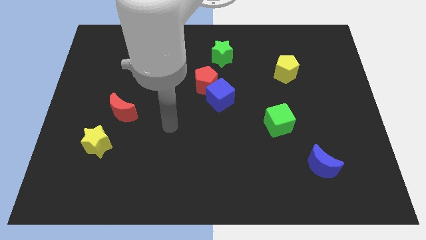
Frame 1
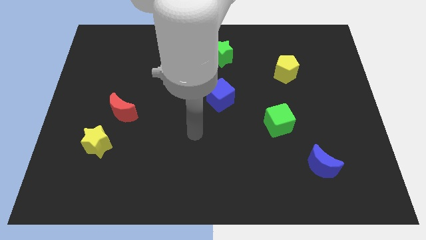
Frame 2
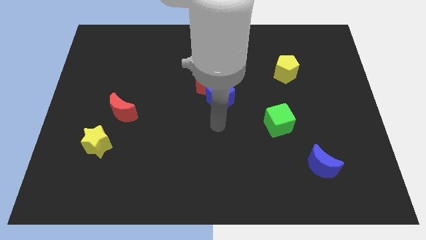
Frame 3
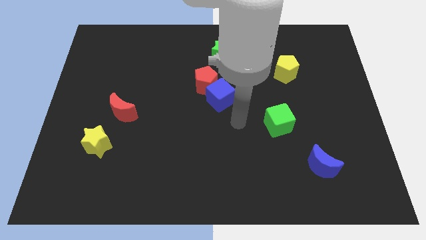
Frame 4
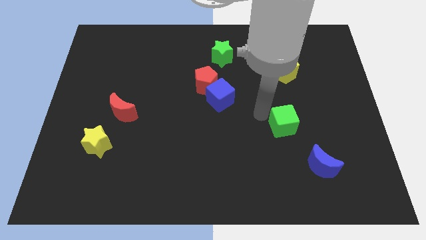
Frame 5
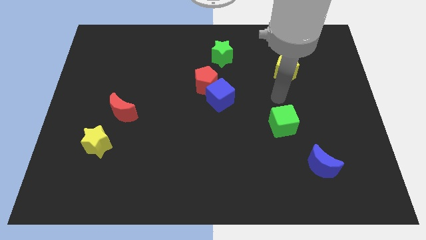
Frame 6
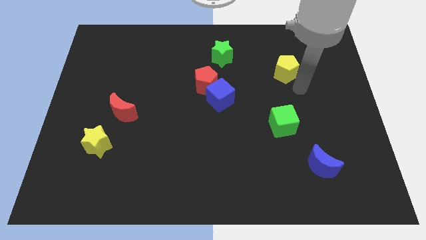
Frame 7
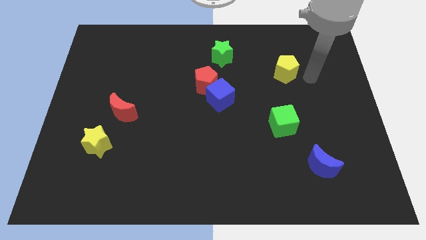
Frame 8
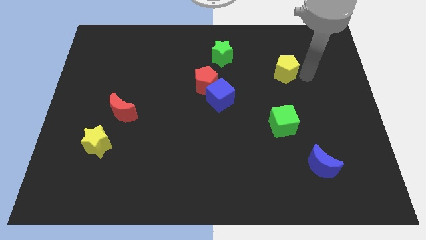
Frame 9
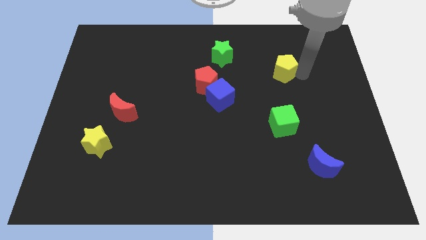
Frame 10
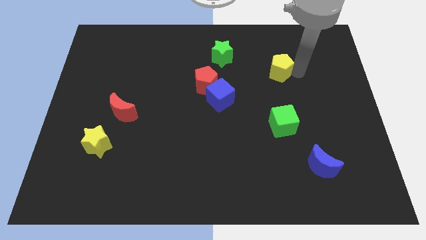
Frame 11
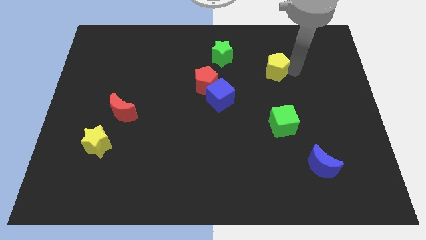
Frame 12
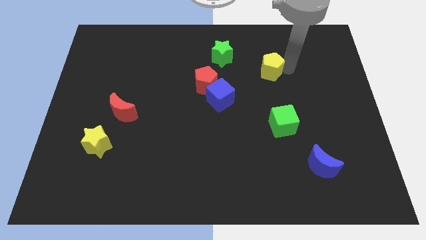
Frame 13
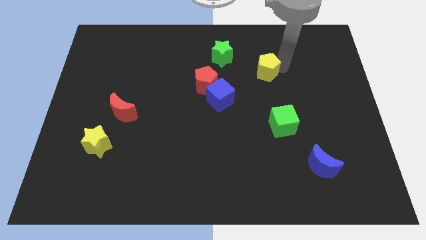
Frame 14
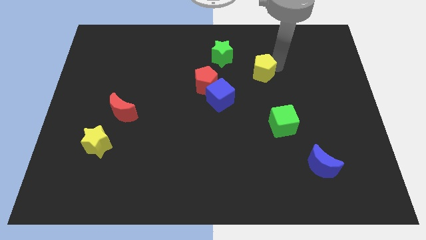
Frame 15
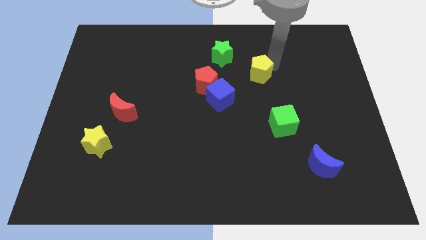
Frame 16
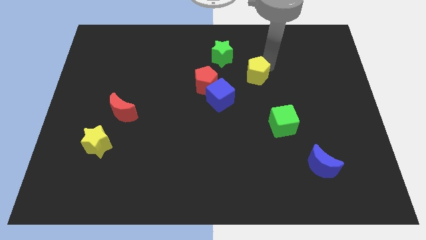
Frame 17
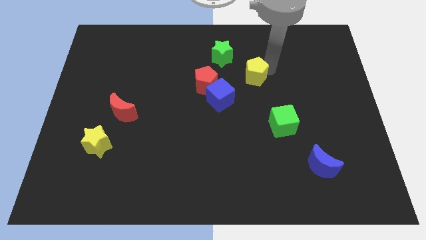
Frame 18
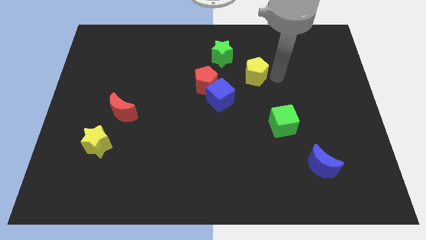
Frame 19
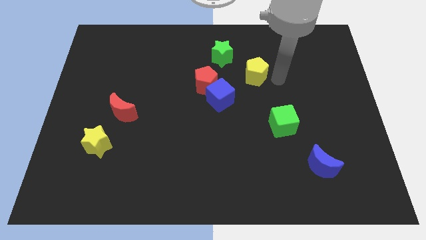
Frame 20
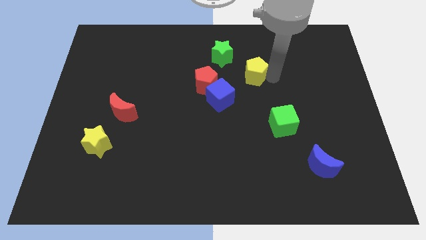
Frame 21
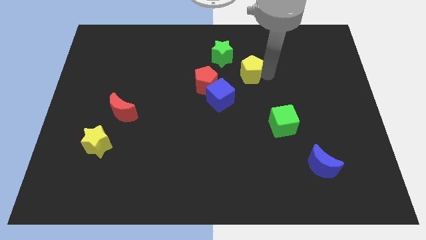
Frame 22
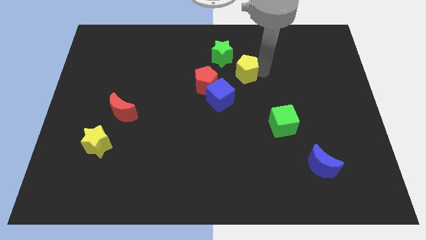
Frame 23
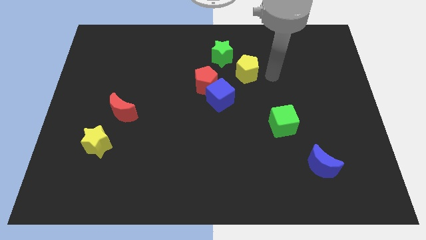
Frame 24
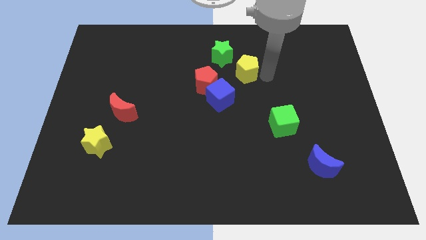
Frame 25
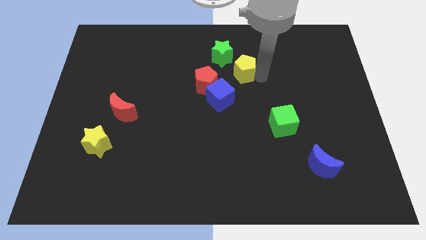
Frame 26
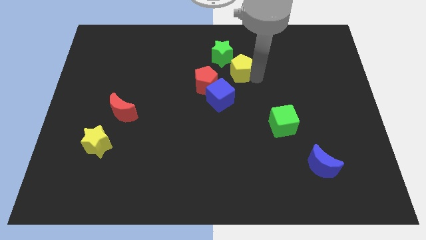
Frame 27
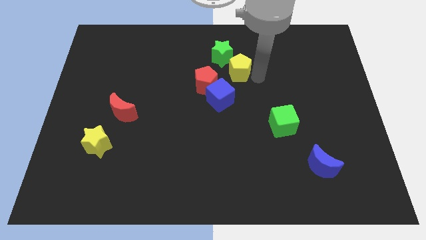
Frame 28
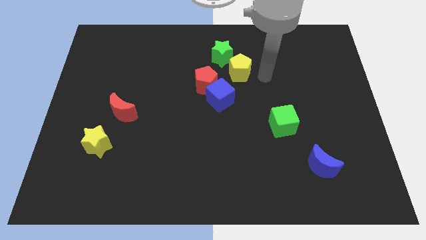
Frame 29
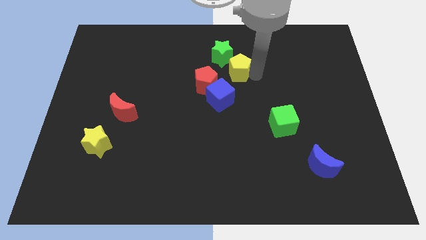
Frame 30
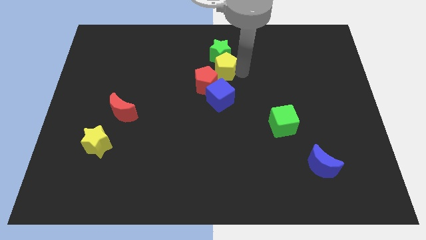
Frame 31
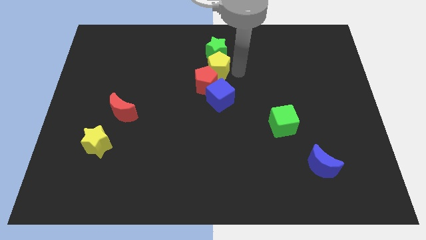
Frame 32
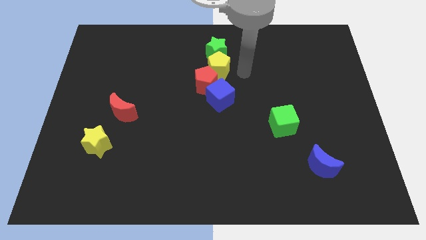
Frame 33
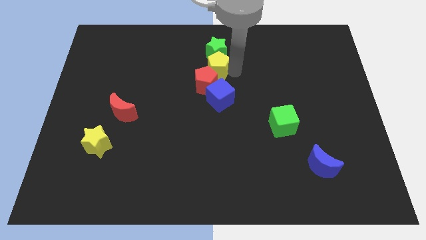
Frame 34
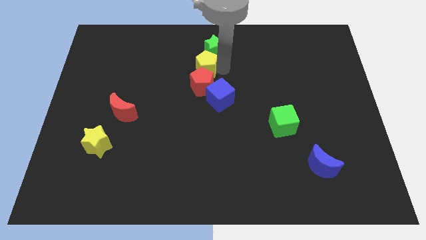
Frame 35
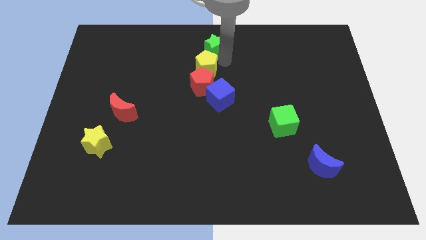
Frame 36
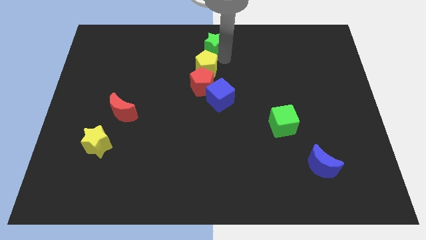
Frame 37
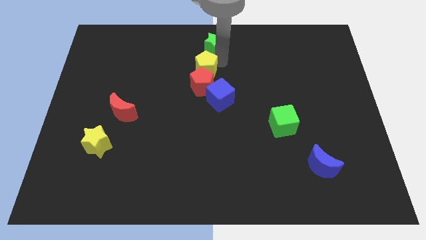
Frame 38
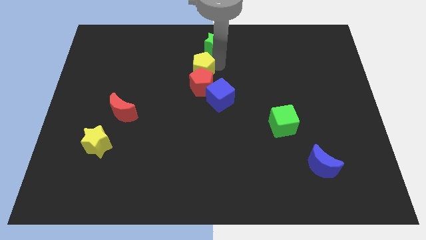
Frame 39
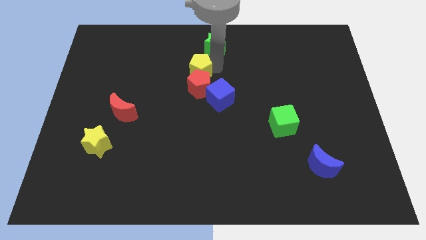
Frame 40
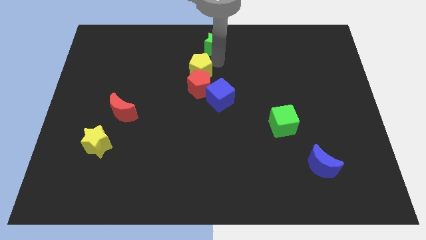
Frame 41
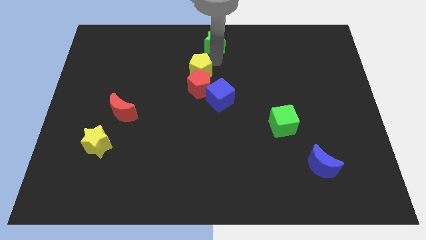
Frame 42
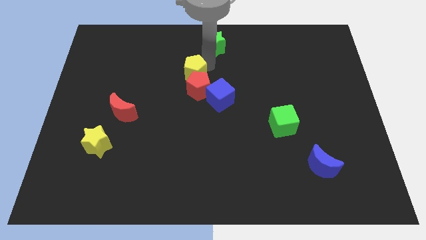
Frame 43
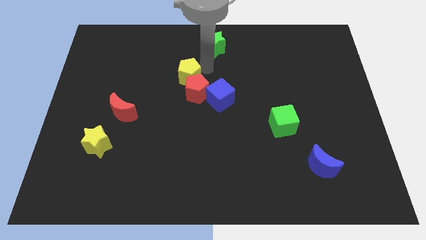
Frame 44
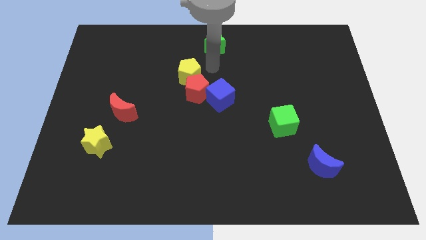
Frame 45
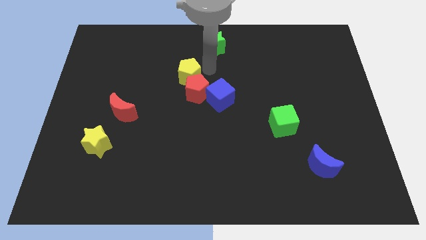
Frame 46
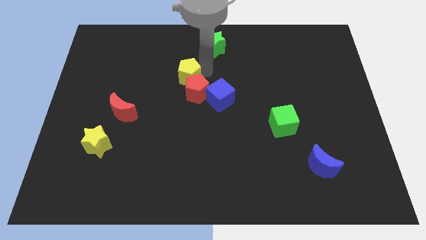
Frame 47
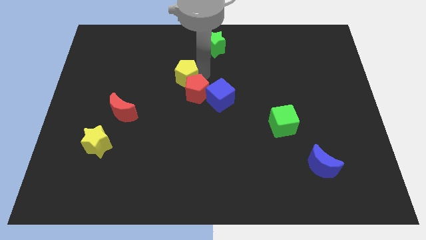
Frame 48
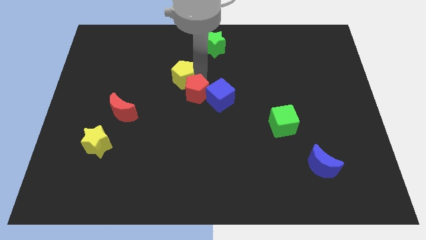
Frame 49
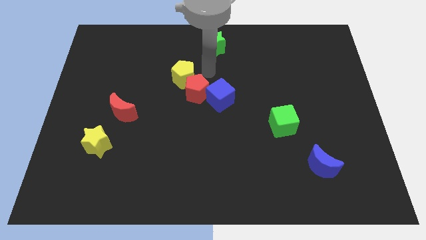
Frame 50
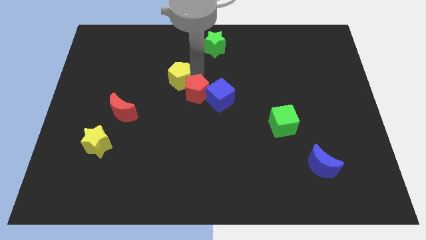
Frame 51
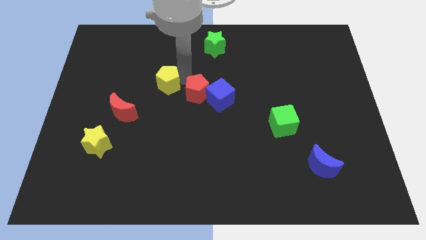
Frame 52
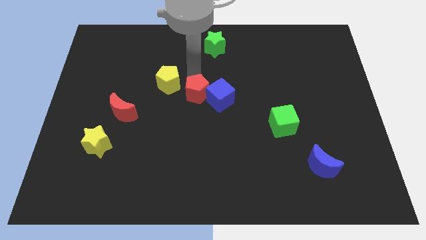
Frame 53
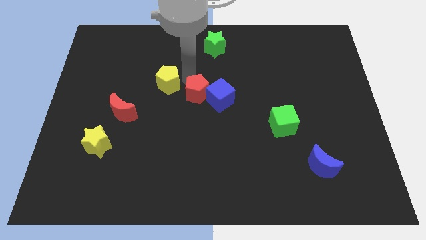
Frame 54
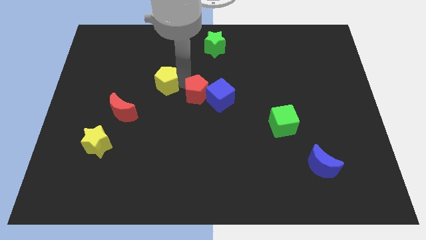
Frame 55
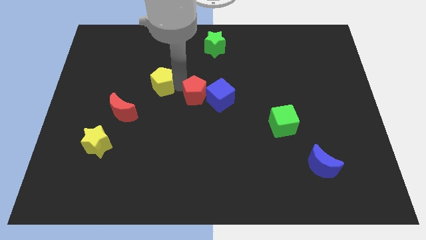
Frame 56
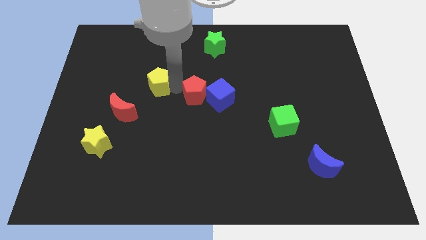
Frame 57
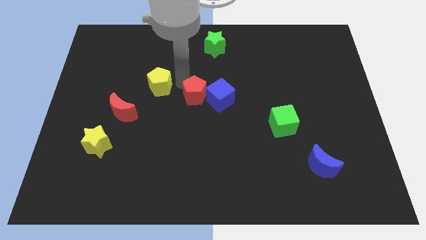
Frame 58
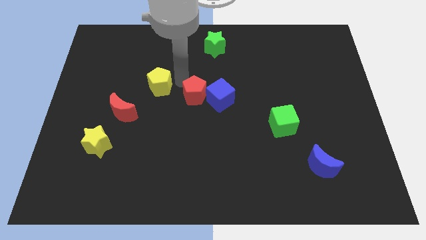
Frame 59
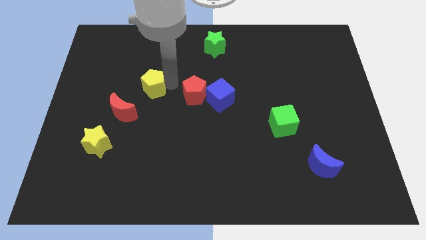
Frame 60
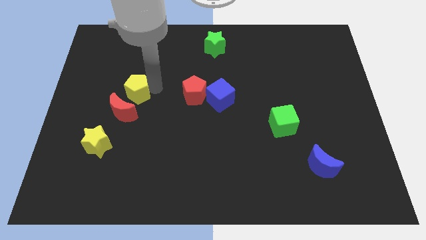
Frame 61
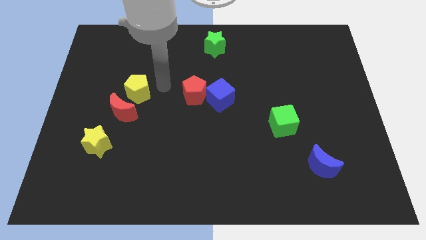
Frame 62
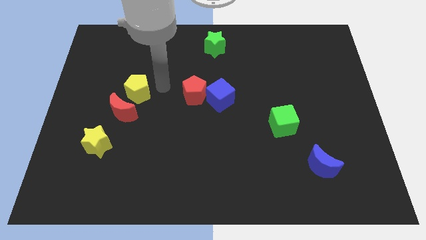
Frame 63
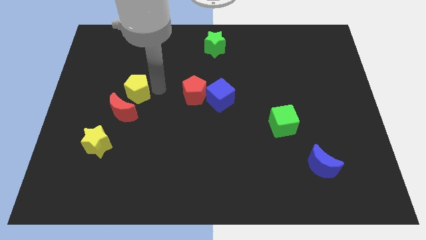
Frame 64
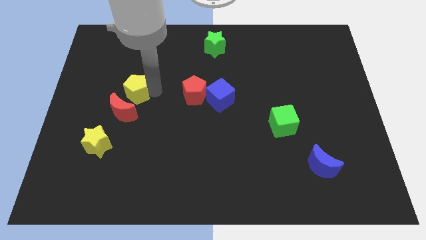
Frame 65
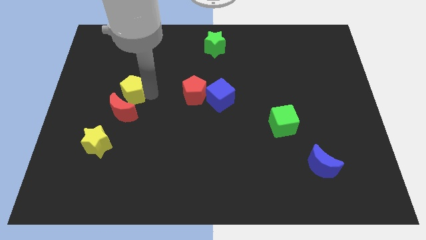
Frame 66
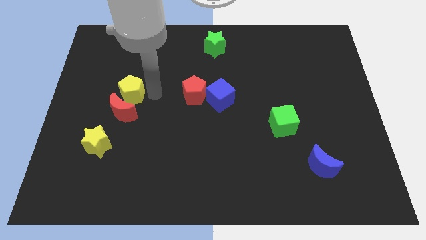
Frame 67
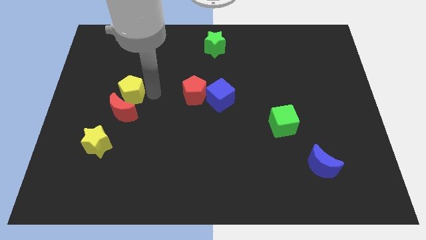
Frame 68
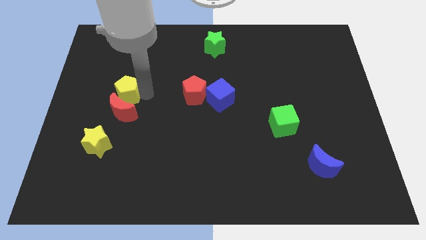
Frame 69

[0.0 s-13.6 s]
push the yellow pentagon diagonally up and to the left of the red moon

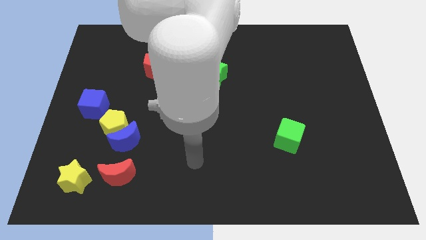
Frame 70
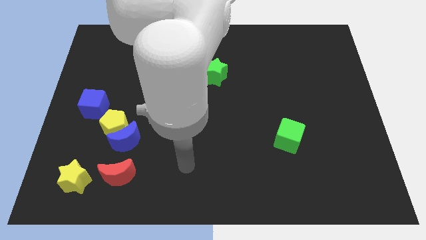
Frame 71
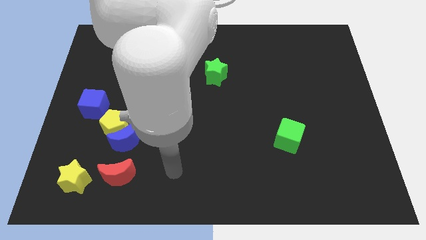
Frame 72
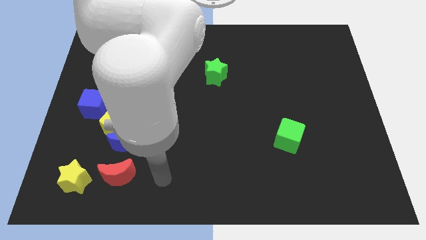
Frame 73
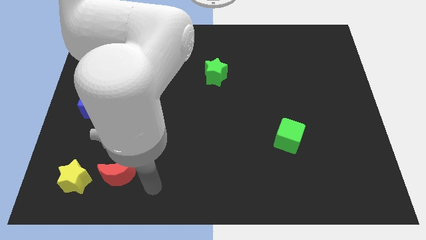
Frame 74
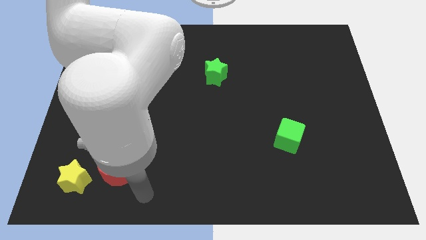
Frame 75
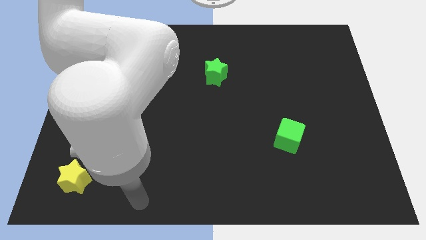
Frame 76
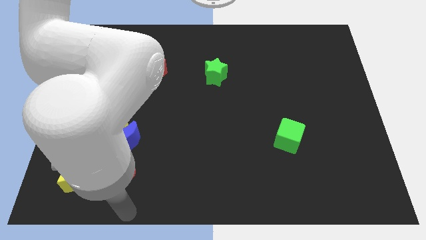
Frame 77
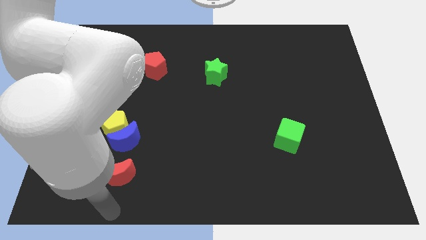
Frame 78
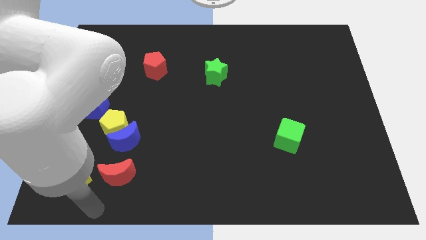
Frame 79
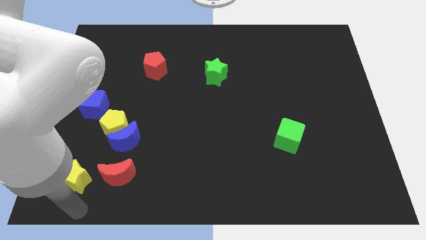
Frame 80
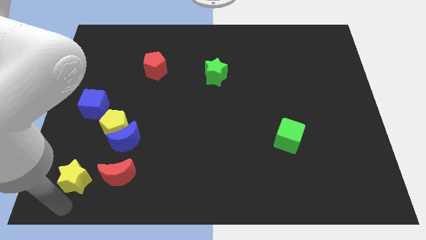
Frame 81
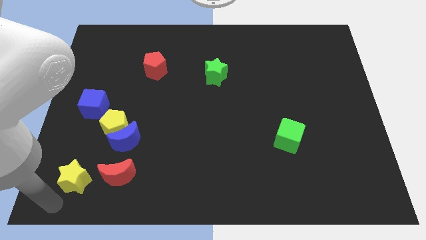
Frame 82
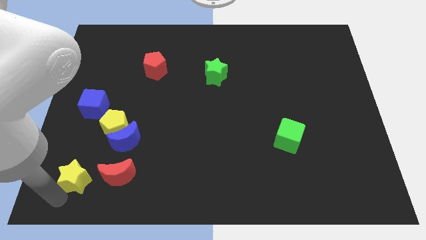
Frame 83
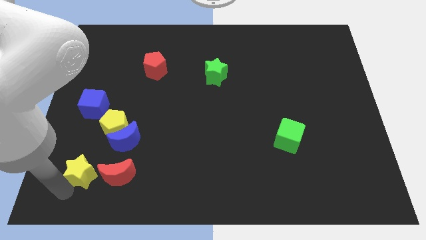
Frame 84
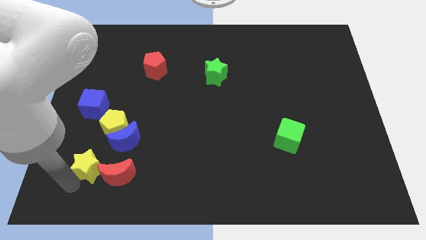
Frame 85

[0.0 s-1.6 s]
push the yellow star to the top left of the red moon
